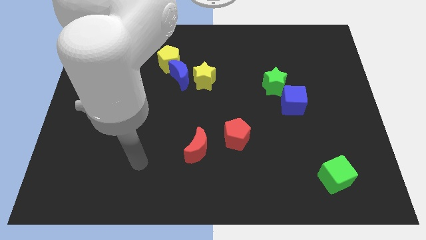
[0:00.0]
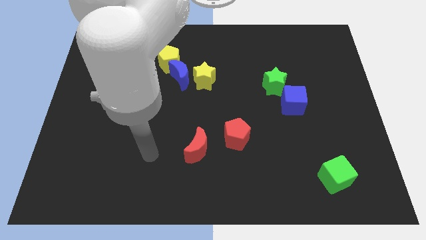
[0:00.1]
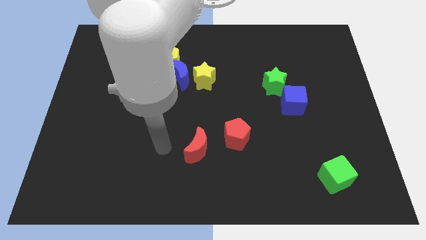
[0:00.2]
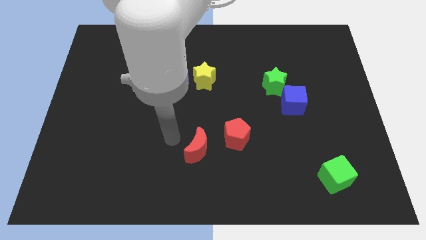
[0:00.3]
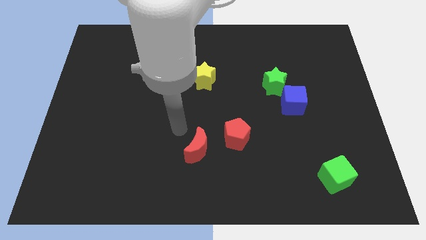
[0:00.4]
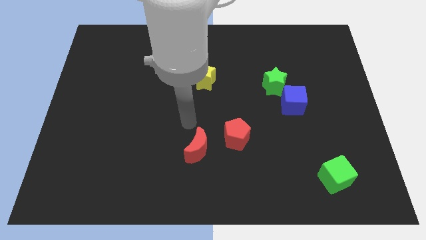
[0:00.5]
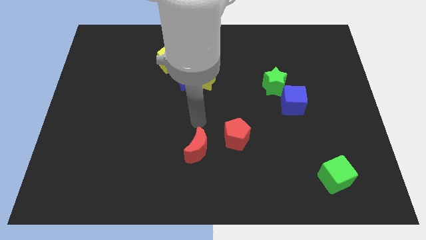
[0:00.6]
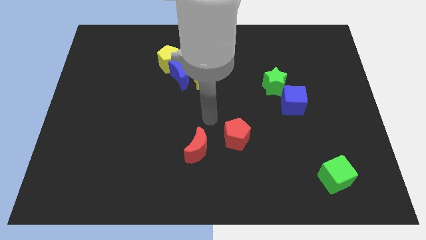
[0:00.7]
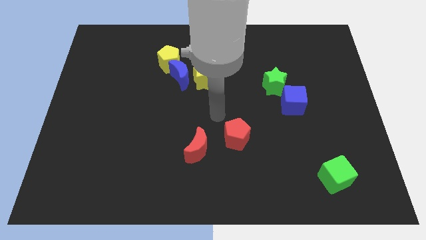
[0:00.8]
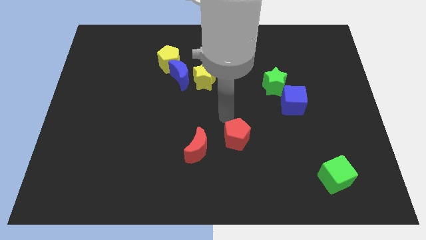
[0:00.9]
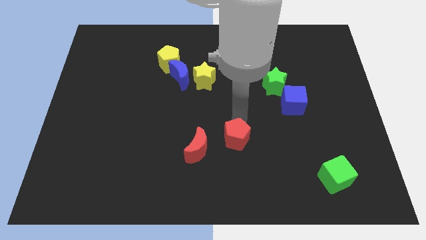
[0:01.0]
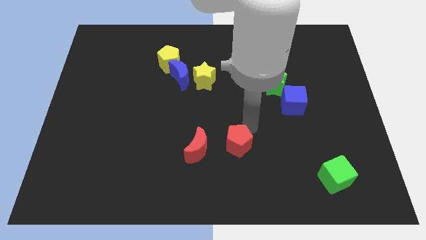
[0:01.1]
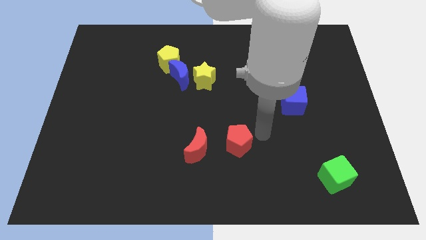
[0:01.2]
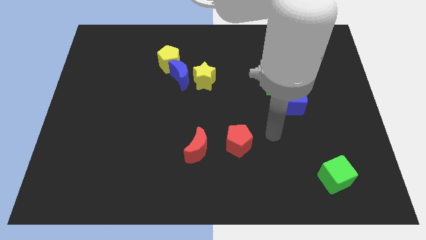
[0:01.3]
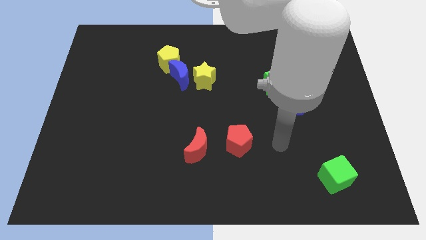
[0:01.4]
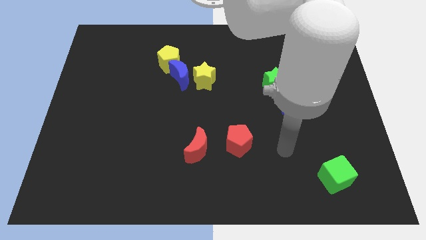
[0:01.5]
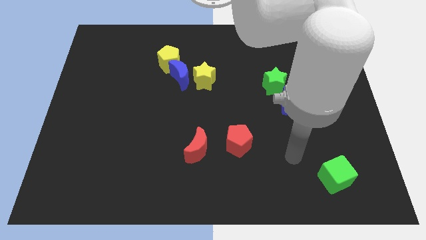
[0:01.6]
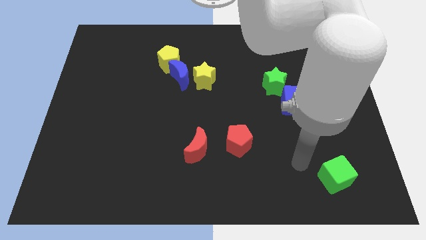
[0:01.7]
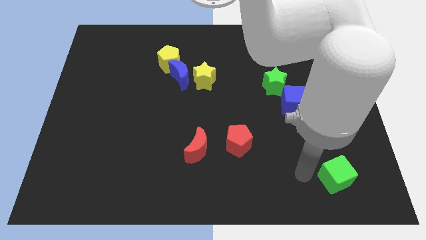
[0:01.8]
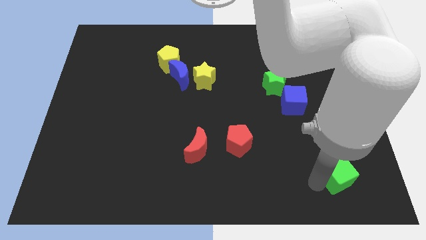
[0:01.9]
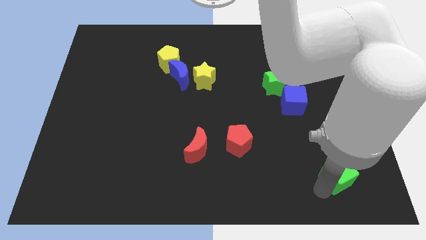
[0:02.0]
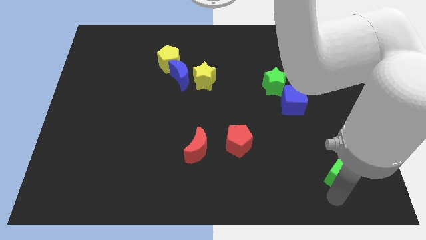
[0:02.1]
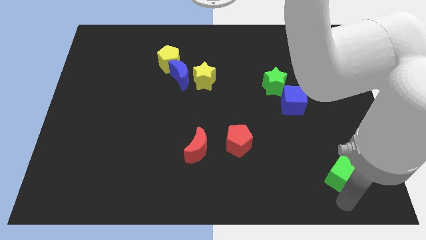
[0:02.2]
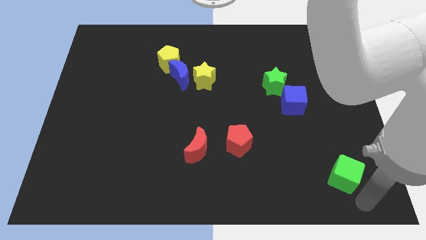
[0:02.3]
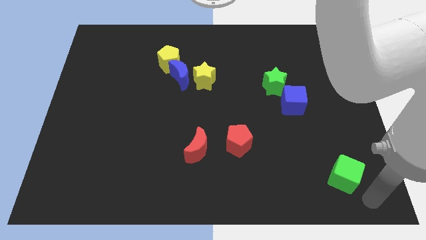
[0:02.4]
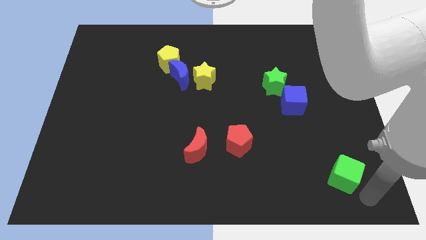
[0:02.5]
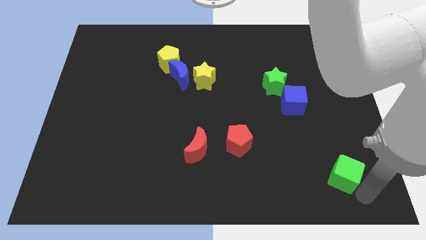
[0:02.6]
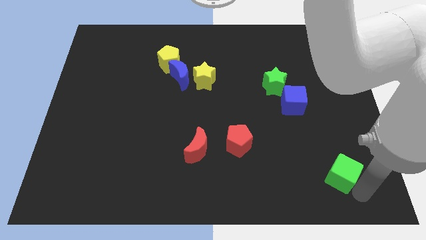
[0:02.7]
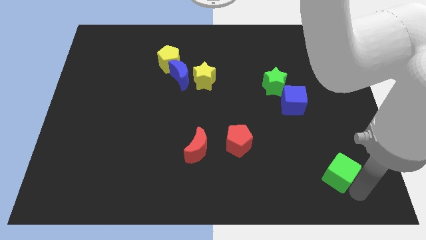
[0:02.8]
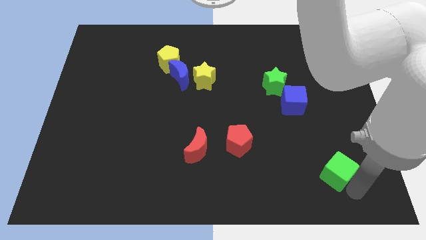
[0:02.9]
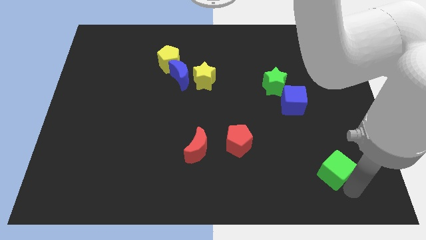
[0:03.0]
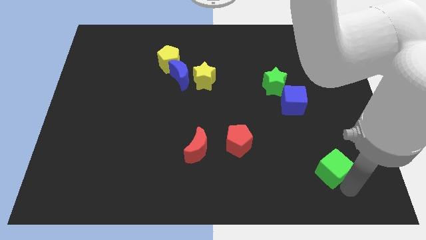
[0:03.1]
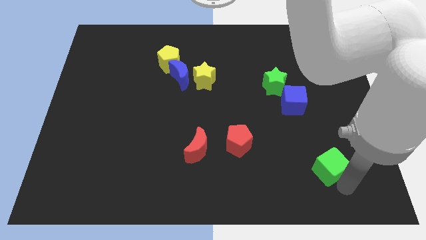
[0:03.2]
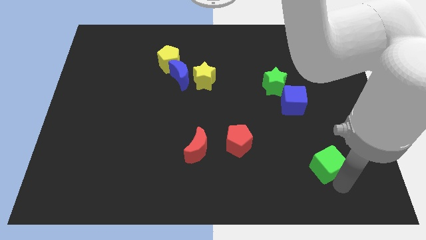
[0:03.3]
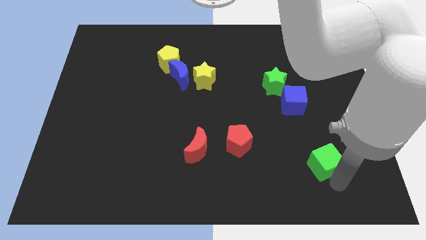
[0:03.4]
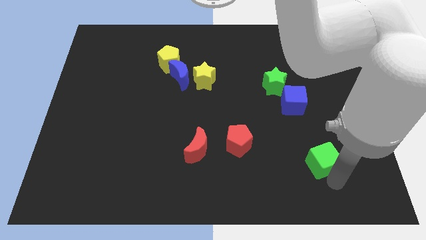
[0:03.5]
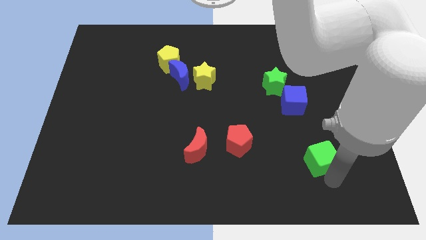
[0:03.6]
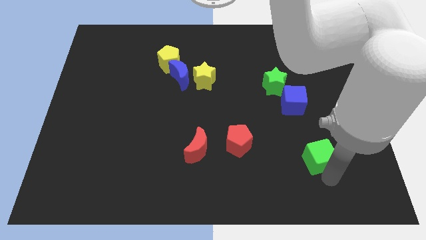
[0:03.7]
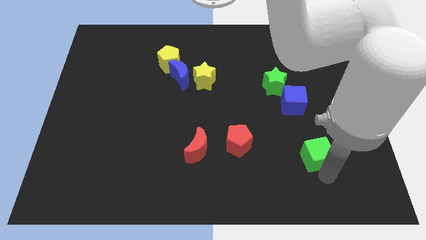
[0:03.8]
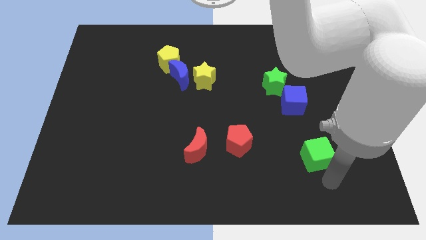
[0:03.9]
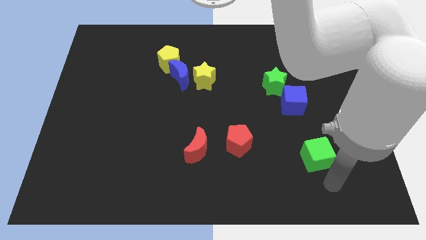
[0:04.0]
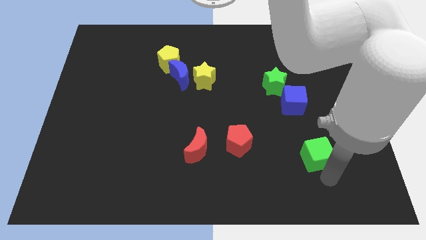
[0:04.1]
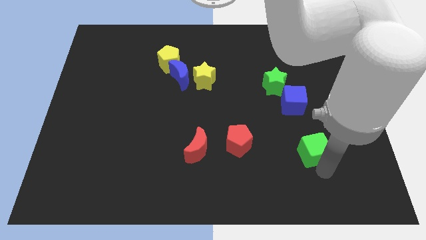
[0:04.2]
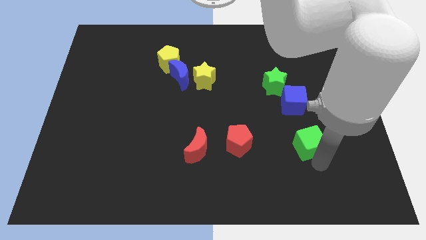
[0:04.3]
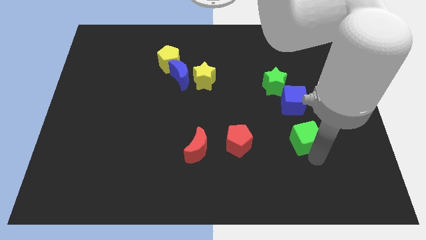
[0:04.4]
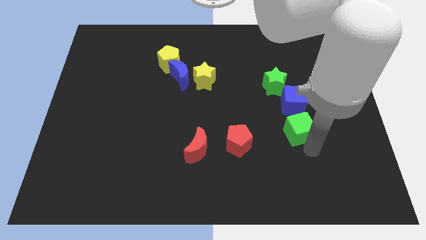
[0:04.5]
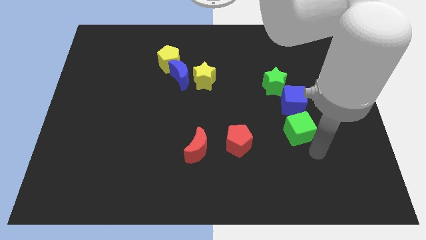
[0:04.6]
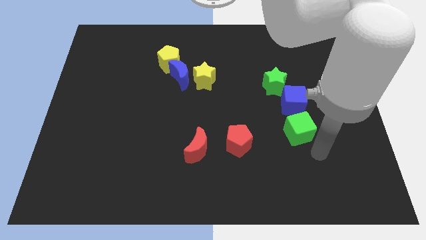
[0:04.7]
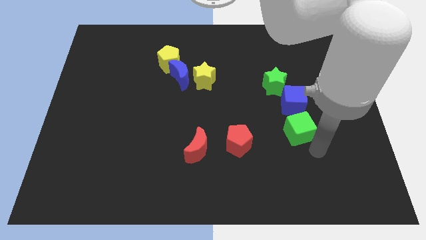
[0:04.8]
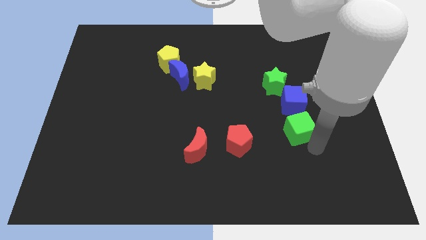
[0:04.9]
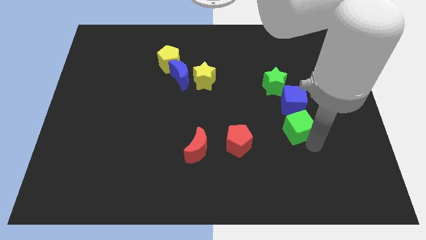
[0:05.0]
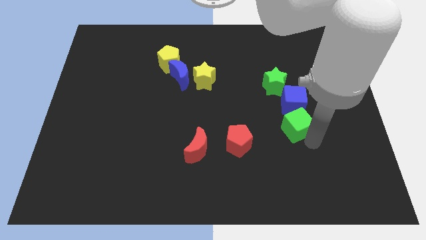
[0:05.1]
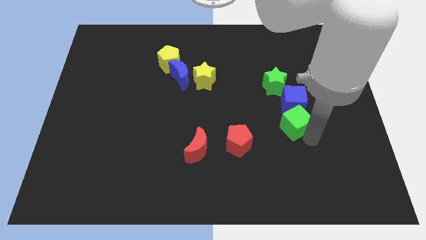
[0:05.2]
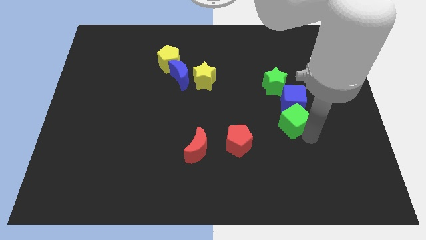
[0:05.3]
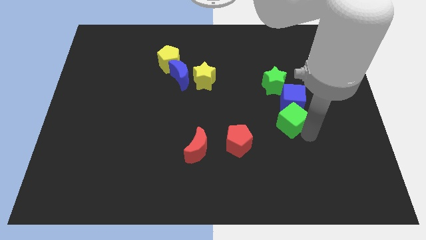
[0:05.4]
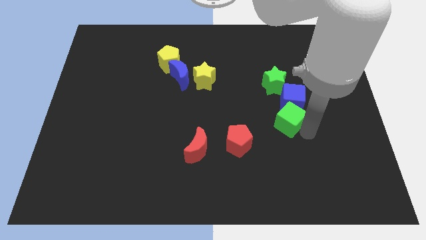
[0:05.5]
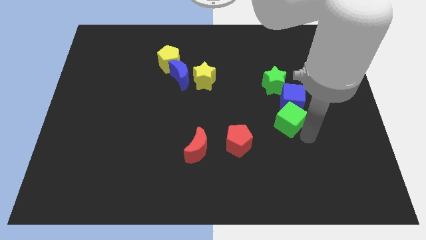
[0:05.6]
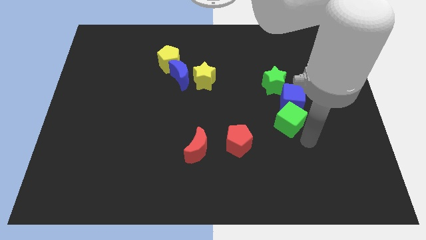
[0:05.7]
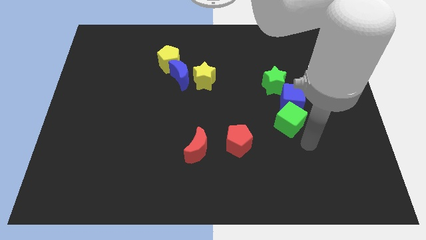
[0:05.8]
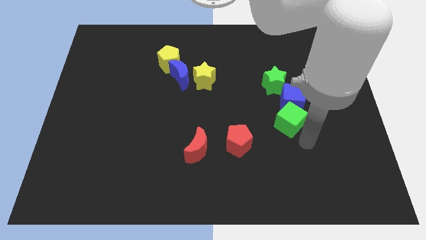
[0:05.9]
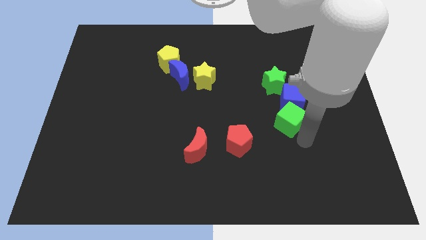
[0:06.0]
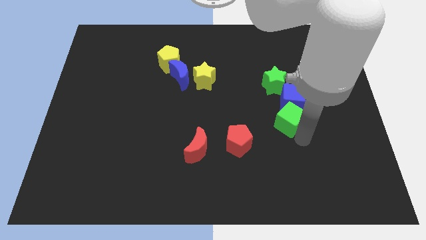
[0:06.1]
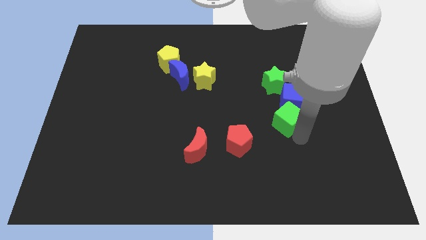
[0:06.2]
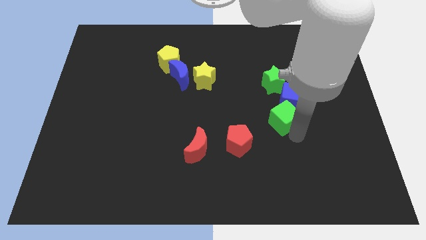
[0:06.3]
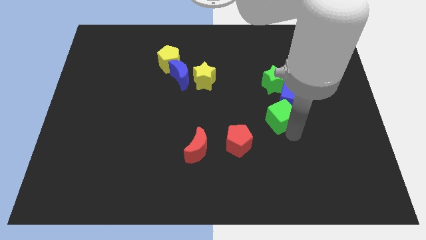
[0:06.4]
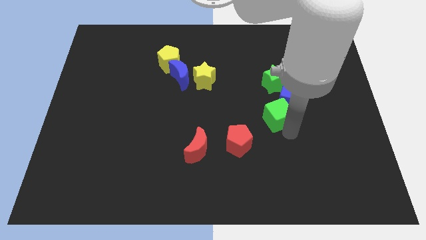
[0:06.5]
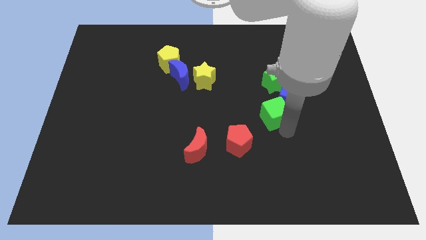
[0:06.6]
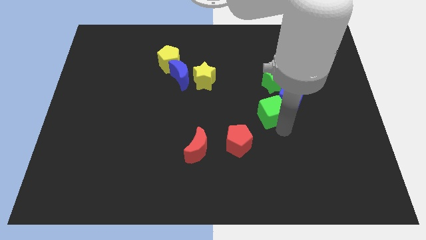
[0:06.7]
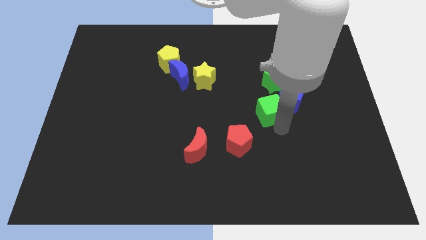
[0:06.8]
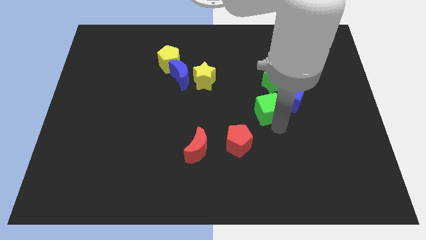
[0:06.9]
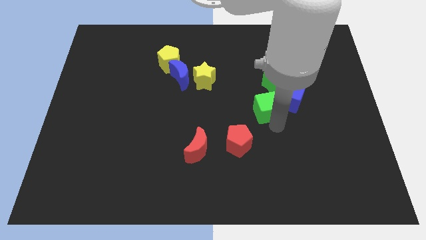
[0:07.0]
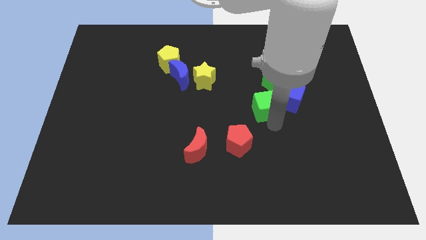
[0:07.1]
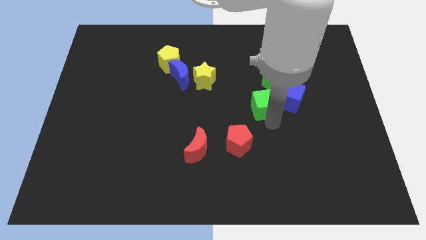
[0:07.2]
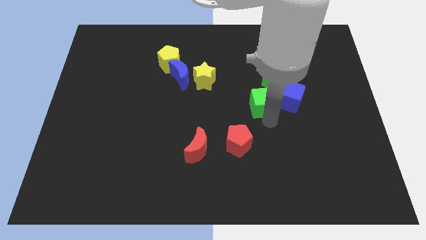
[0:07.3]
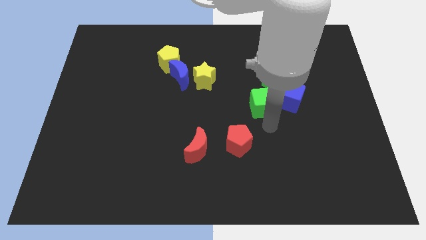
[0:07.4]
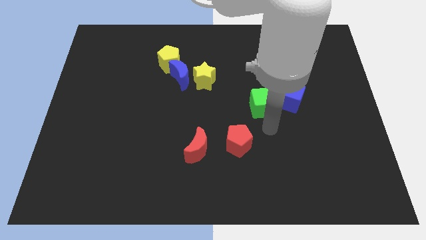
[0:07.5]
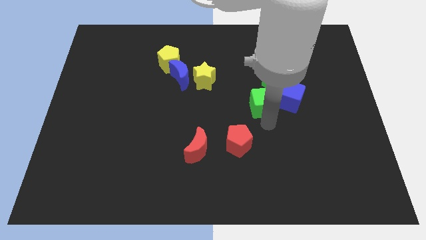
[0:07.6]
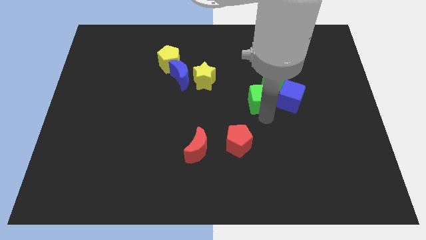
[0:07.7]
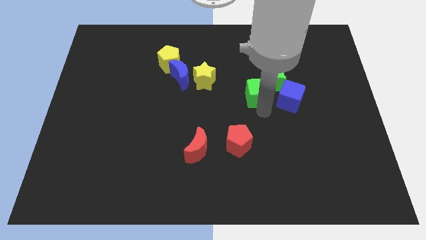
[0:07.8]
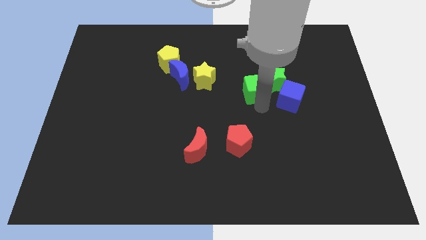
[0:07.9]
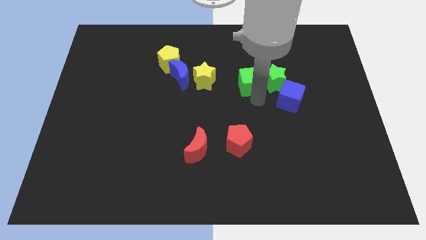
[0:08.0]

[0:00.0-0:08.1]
push the green cube to the top left side of the green star
